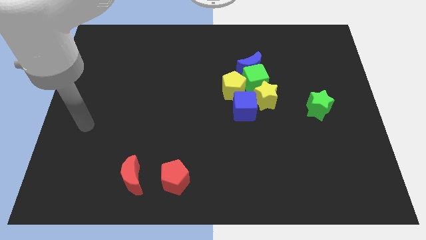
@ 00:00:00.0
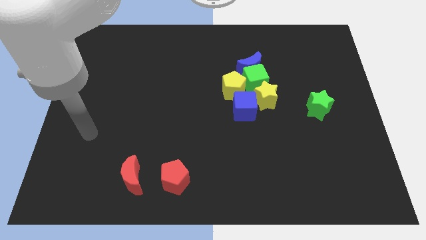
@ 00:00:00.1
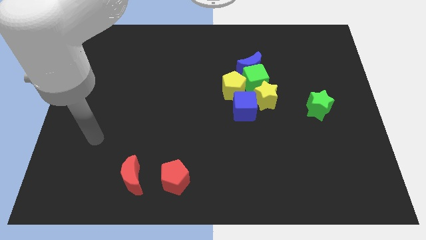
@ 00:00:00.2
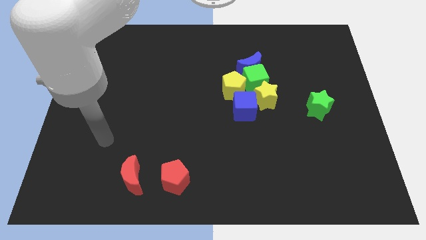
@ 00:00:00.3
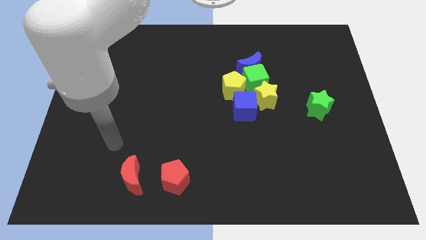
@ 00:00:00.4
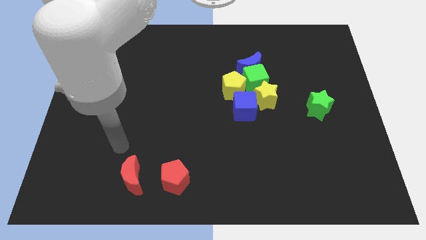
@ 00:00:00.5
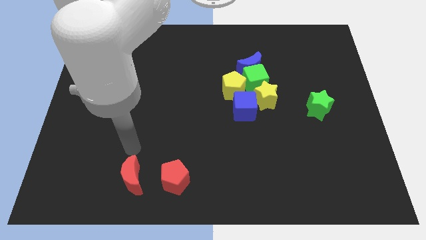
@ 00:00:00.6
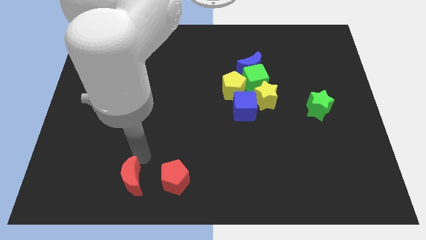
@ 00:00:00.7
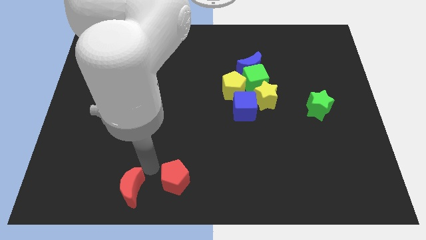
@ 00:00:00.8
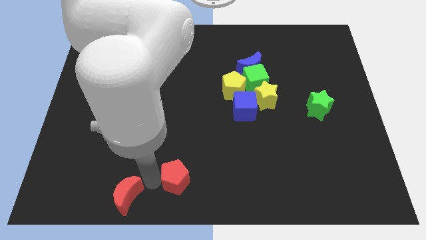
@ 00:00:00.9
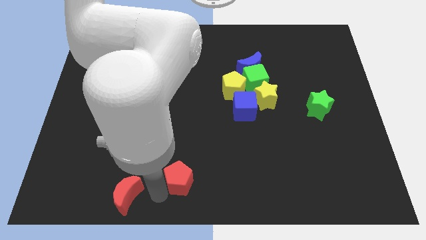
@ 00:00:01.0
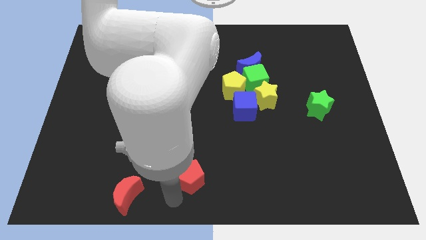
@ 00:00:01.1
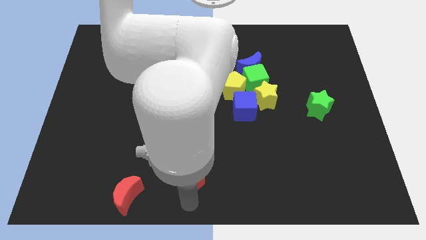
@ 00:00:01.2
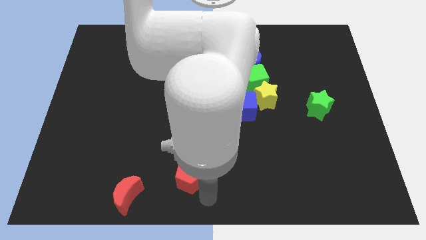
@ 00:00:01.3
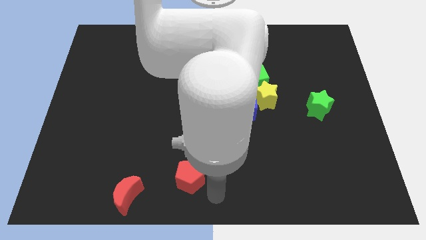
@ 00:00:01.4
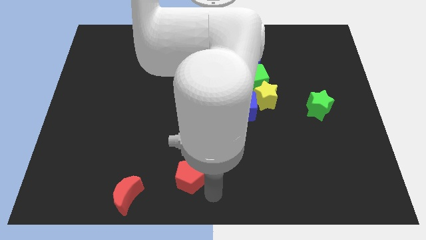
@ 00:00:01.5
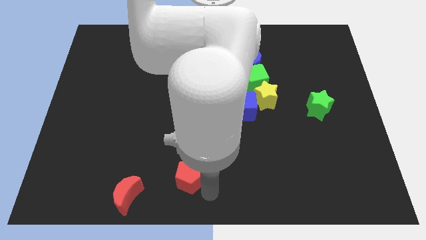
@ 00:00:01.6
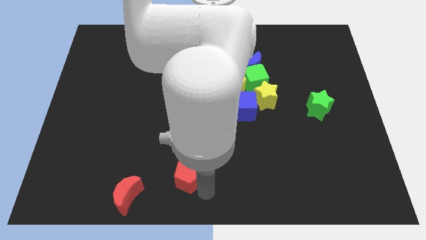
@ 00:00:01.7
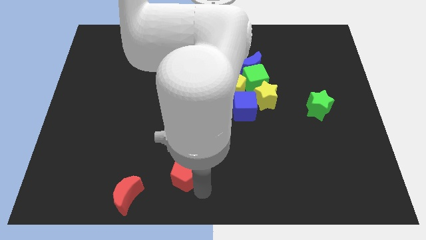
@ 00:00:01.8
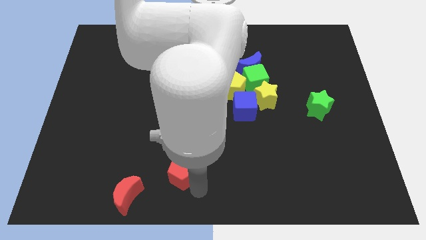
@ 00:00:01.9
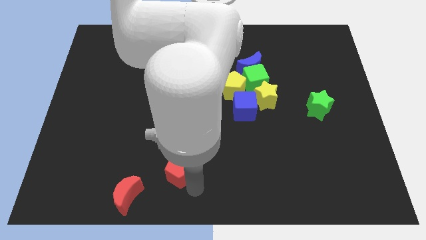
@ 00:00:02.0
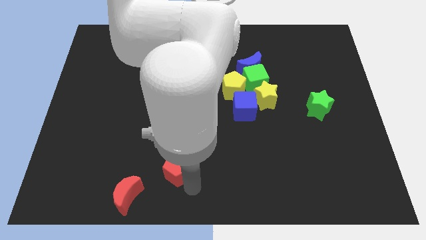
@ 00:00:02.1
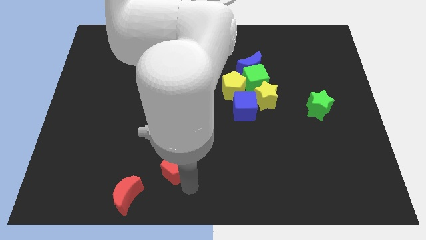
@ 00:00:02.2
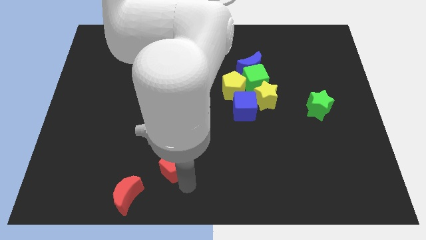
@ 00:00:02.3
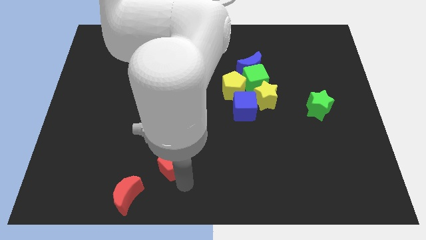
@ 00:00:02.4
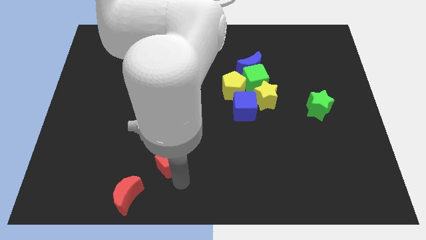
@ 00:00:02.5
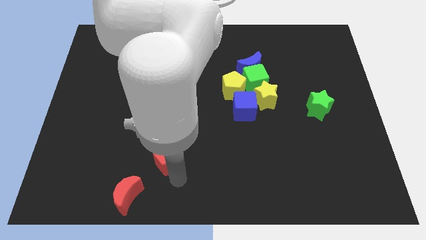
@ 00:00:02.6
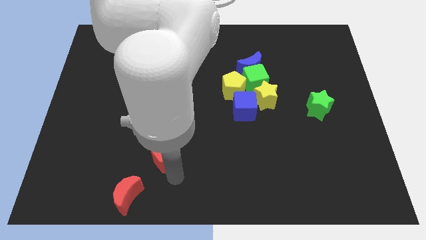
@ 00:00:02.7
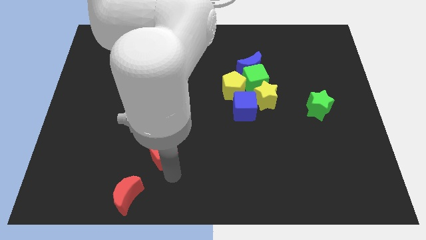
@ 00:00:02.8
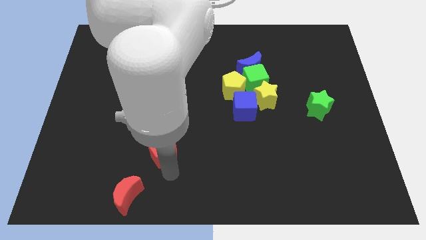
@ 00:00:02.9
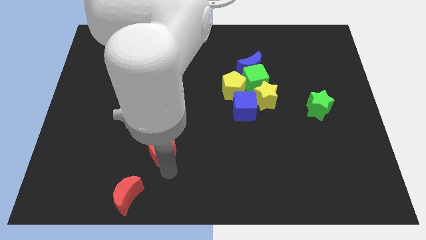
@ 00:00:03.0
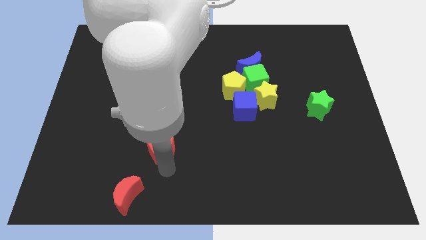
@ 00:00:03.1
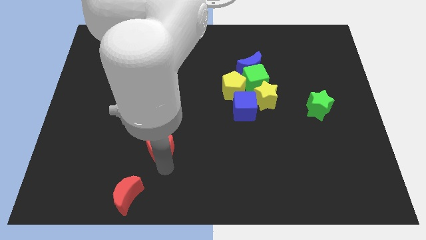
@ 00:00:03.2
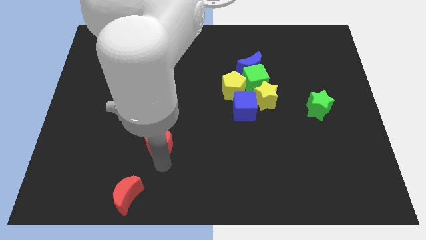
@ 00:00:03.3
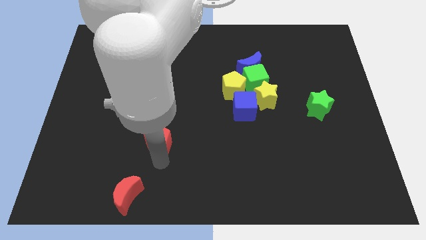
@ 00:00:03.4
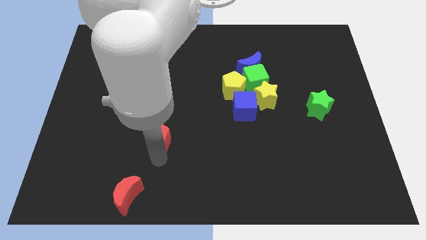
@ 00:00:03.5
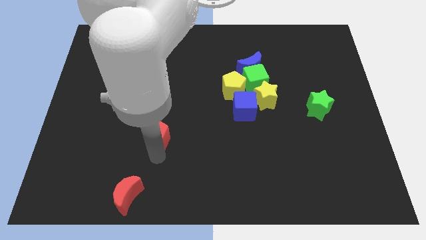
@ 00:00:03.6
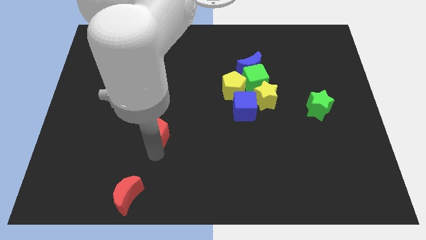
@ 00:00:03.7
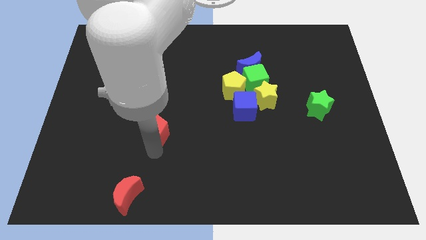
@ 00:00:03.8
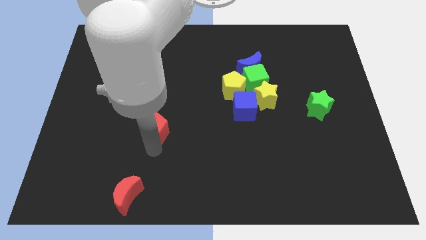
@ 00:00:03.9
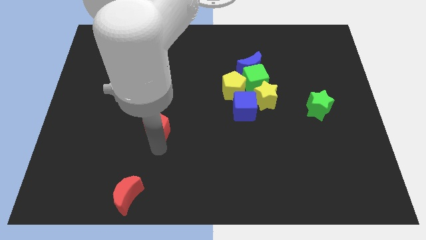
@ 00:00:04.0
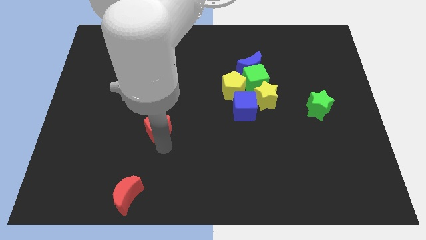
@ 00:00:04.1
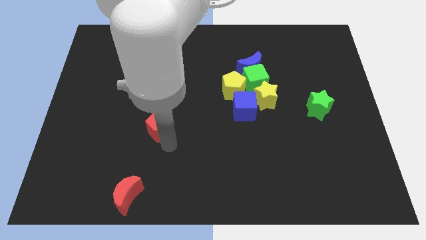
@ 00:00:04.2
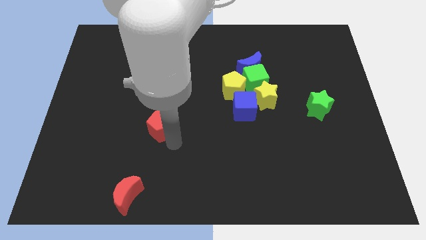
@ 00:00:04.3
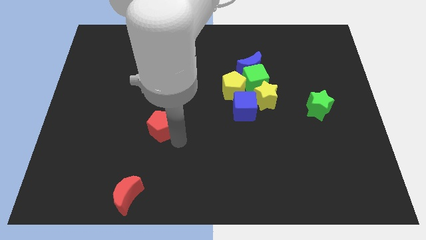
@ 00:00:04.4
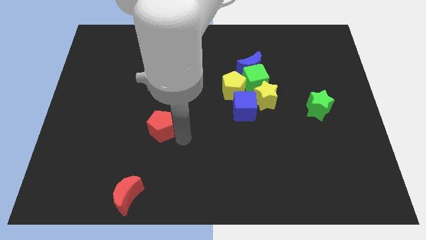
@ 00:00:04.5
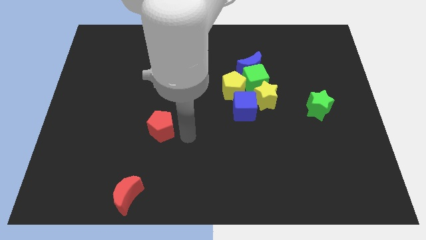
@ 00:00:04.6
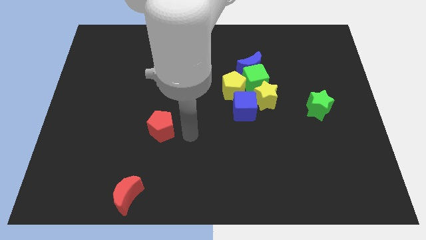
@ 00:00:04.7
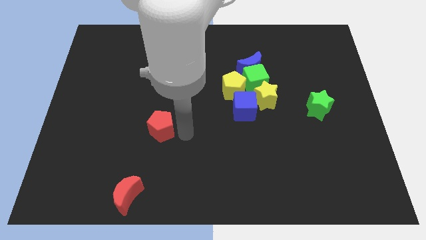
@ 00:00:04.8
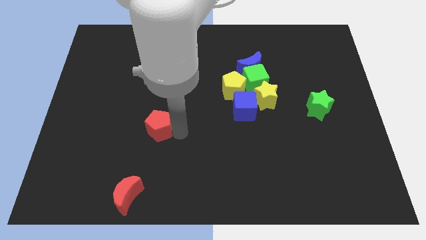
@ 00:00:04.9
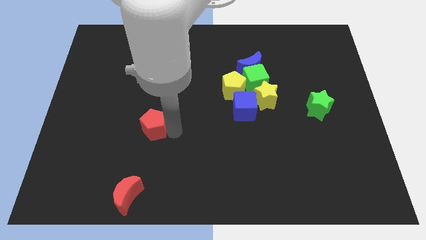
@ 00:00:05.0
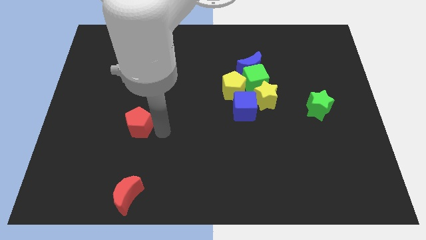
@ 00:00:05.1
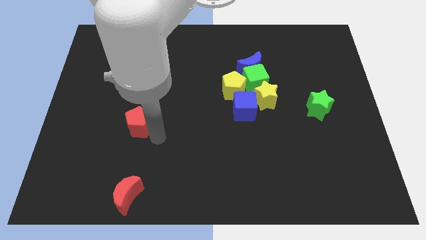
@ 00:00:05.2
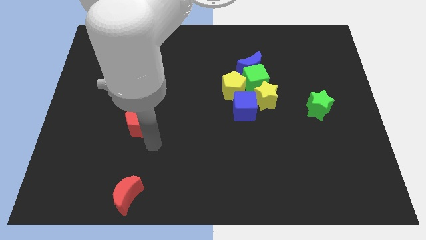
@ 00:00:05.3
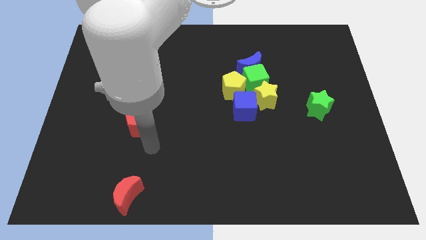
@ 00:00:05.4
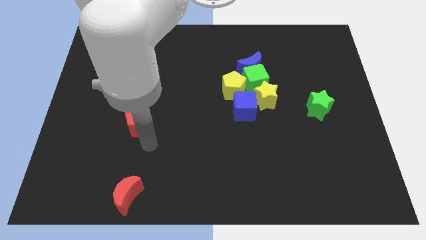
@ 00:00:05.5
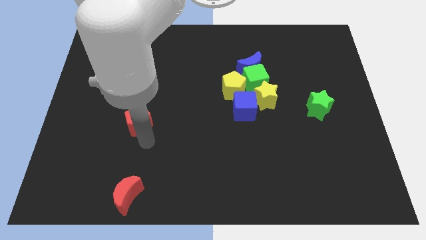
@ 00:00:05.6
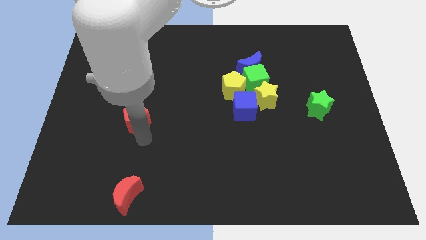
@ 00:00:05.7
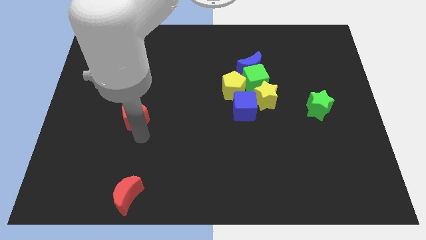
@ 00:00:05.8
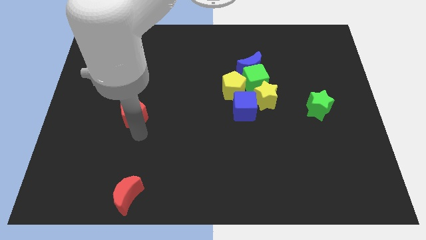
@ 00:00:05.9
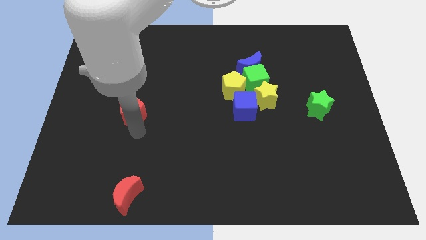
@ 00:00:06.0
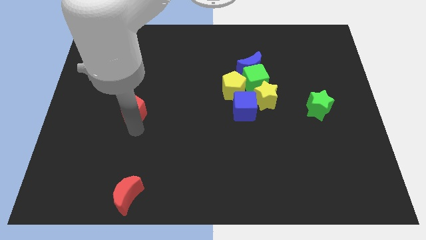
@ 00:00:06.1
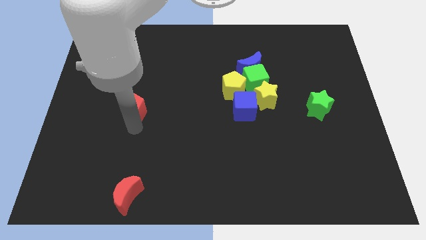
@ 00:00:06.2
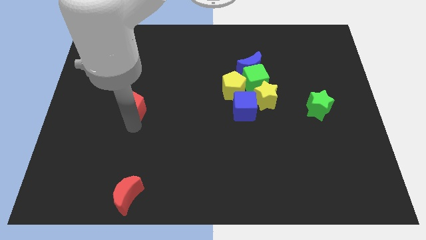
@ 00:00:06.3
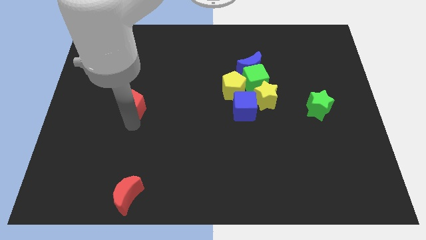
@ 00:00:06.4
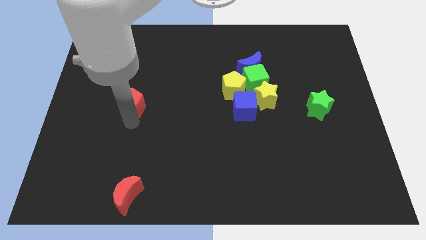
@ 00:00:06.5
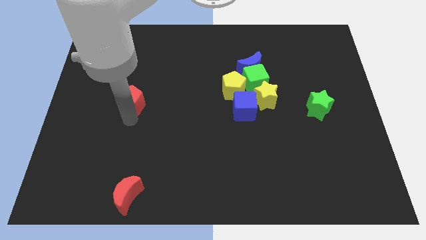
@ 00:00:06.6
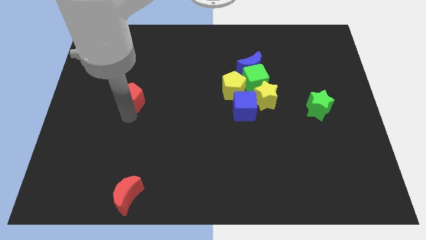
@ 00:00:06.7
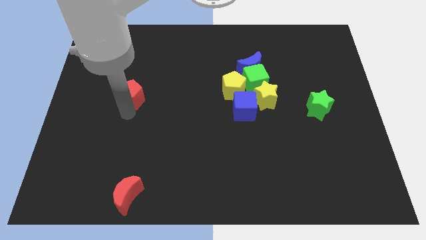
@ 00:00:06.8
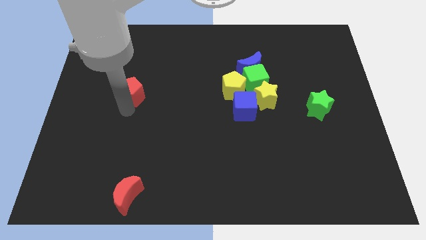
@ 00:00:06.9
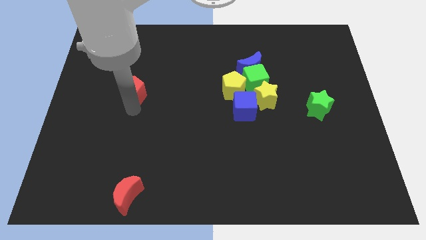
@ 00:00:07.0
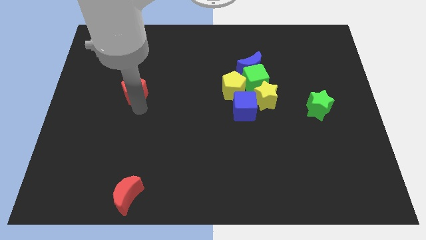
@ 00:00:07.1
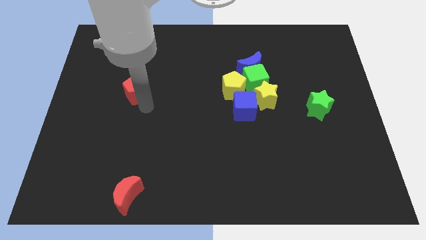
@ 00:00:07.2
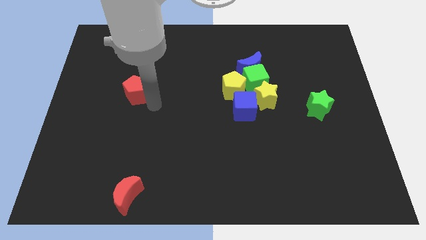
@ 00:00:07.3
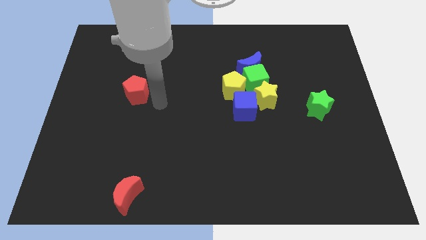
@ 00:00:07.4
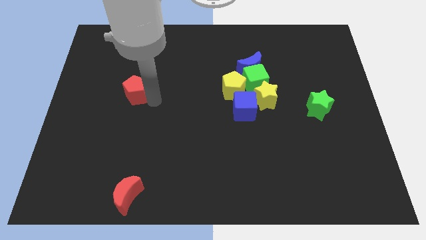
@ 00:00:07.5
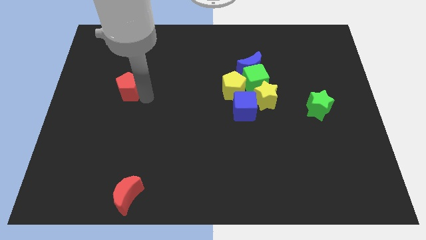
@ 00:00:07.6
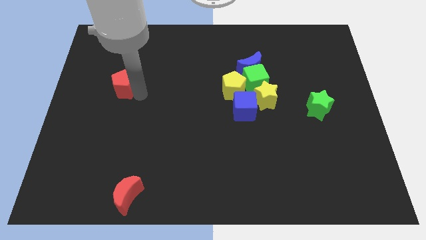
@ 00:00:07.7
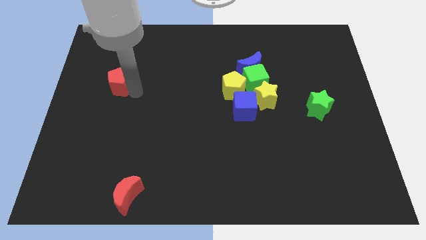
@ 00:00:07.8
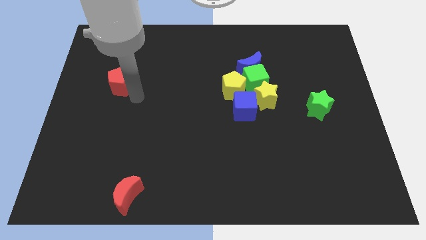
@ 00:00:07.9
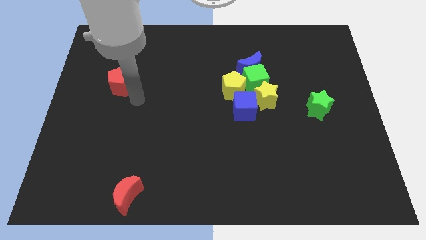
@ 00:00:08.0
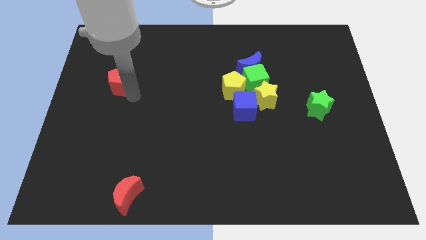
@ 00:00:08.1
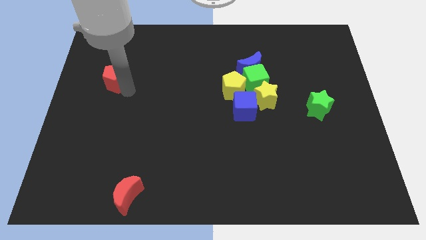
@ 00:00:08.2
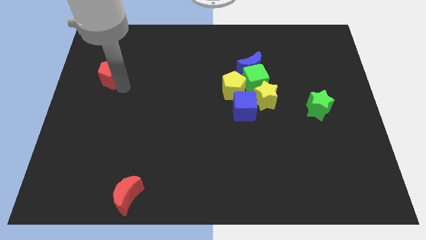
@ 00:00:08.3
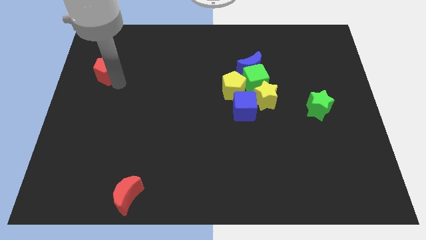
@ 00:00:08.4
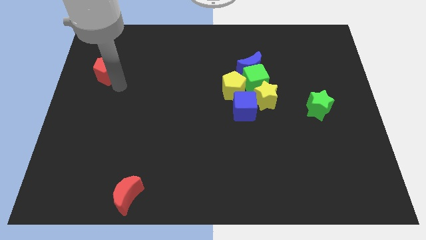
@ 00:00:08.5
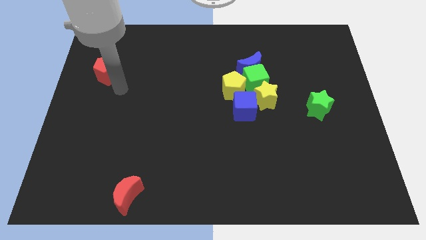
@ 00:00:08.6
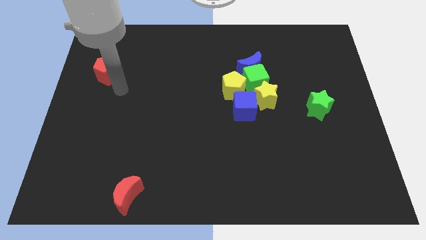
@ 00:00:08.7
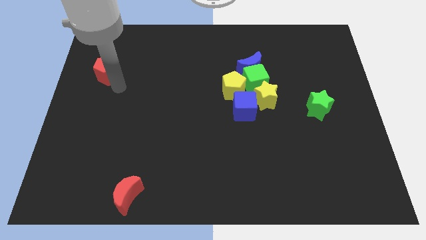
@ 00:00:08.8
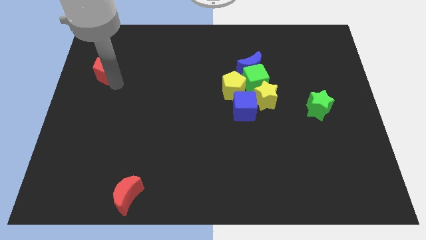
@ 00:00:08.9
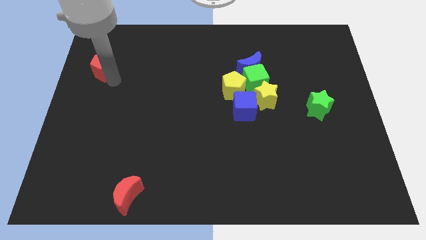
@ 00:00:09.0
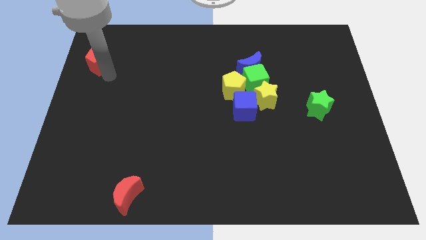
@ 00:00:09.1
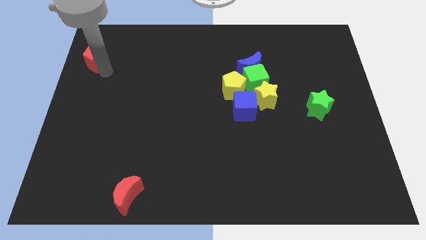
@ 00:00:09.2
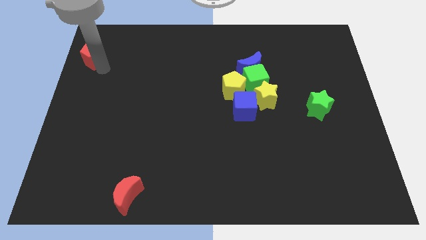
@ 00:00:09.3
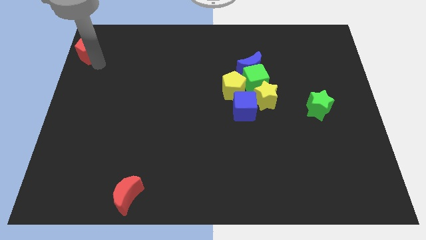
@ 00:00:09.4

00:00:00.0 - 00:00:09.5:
put the red pentagon to the top left
